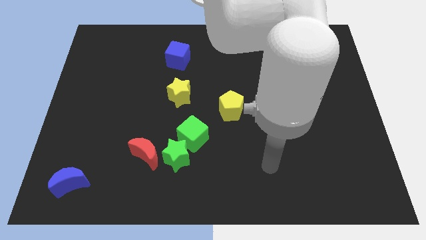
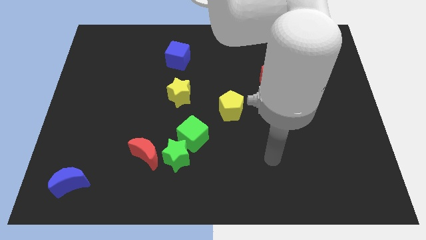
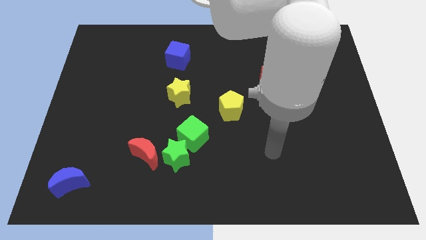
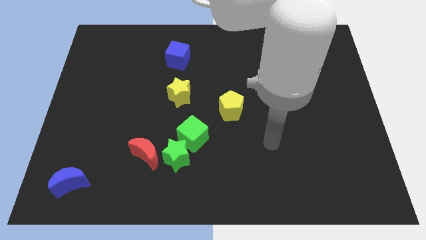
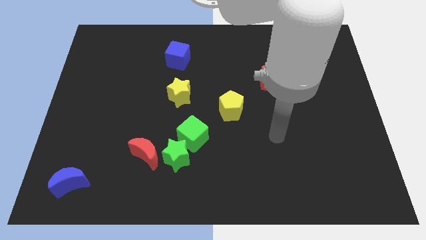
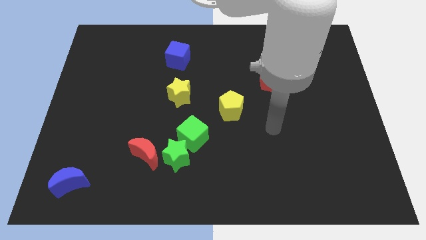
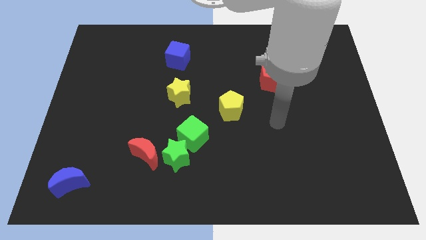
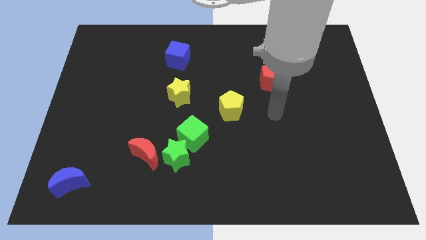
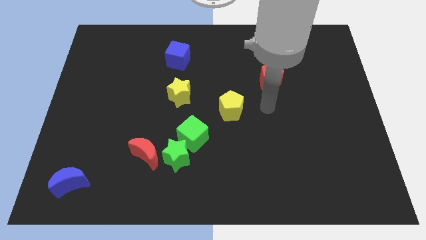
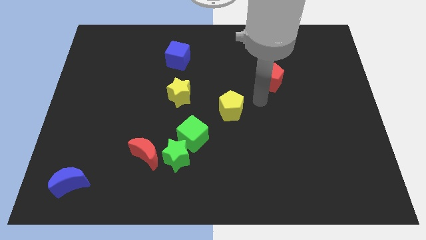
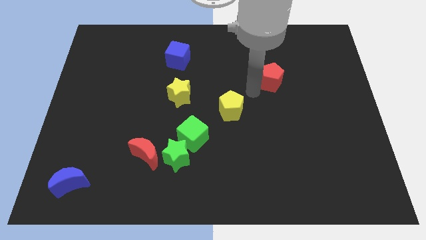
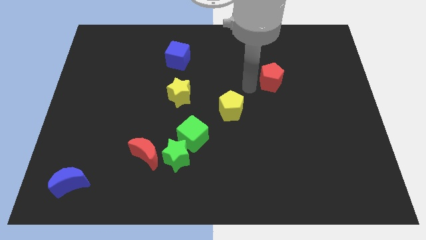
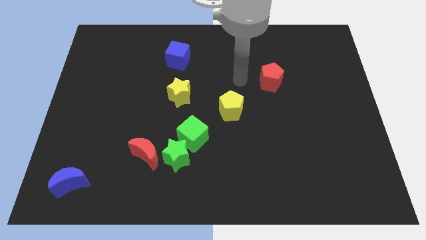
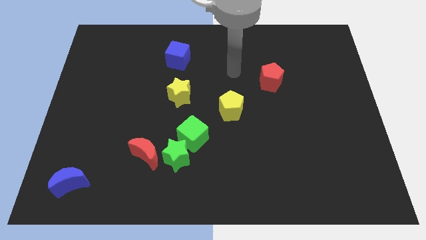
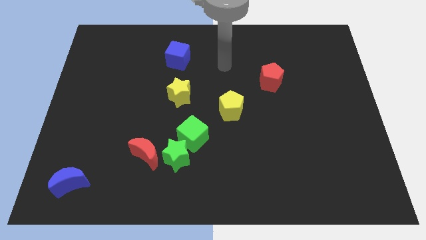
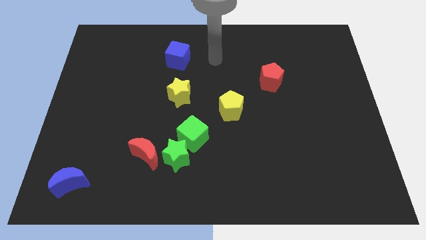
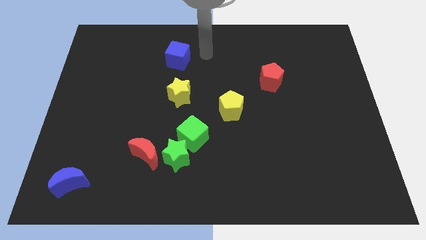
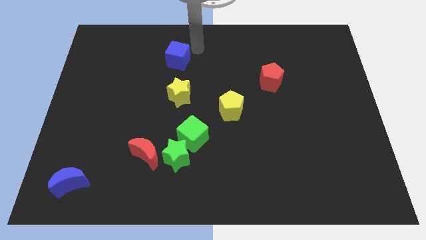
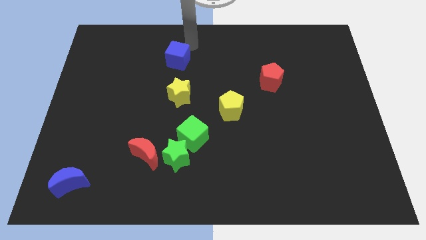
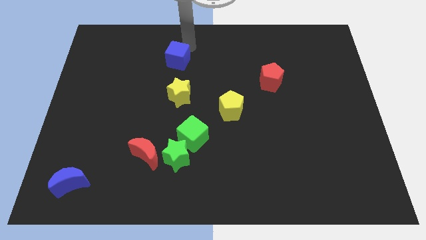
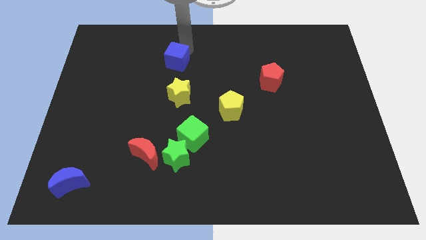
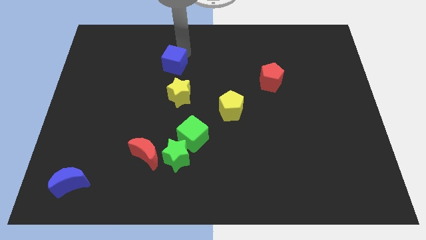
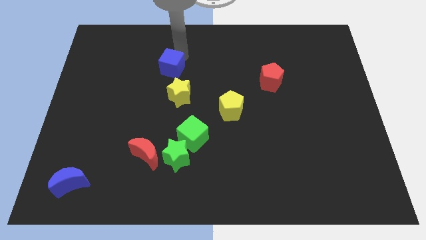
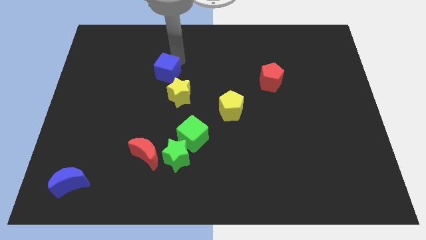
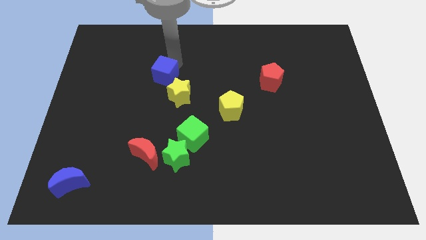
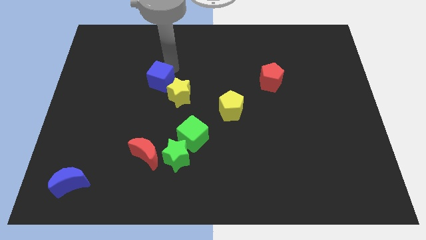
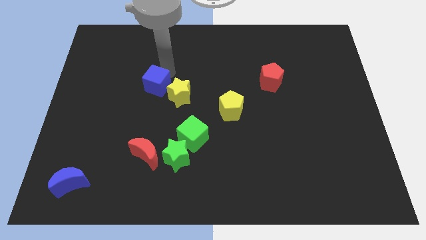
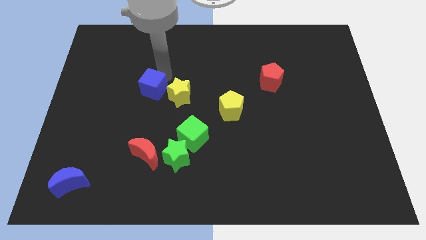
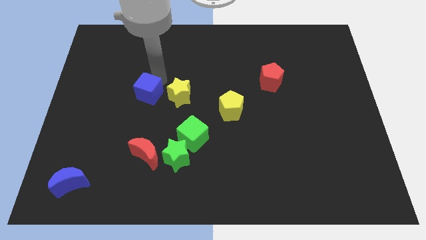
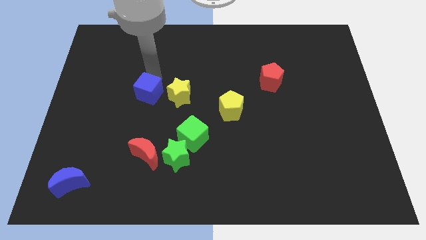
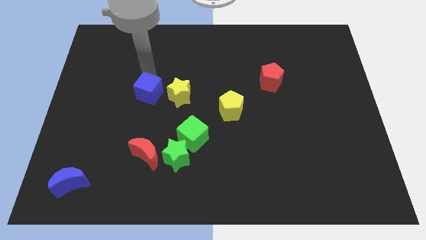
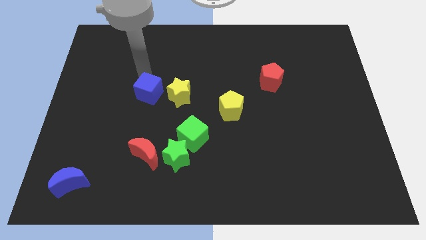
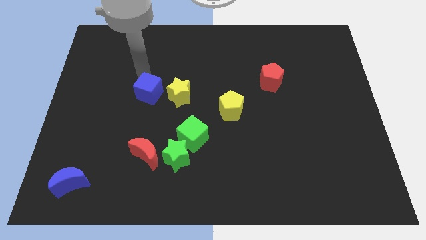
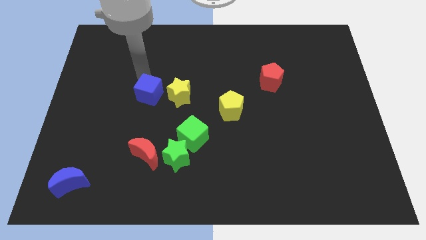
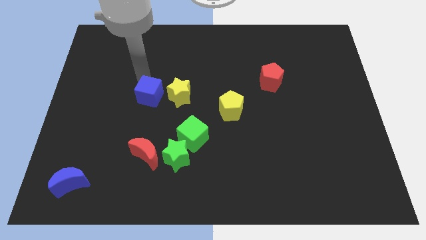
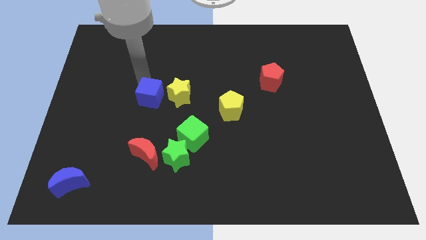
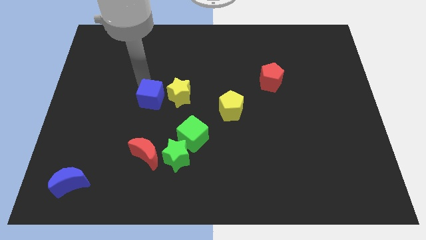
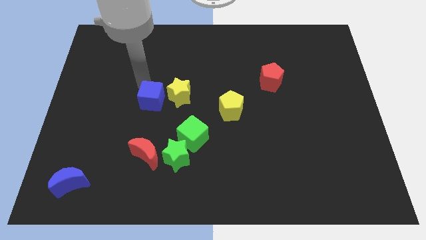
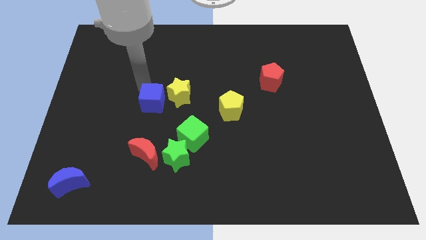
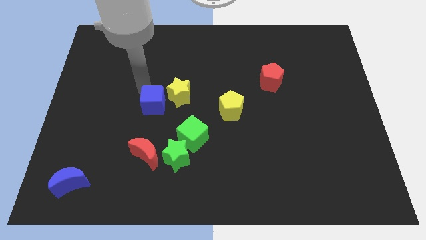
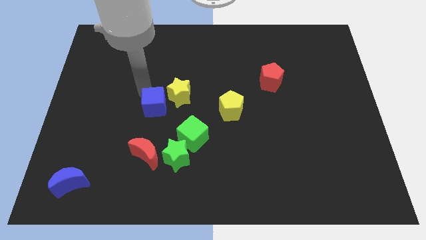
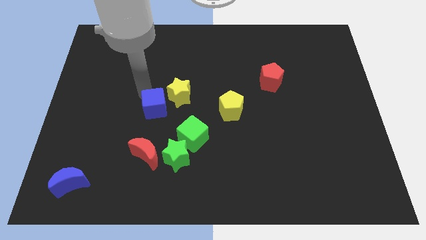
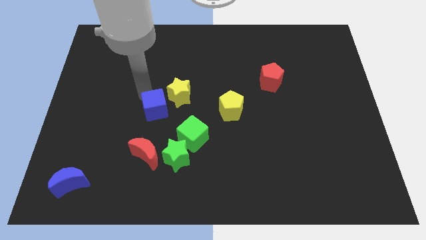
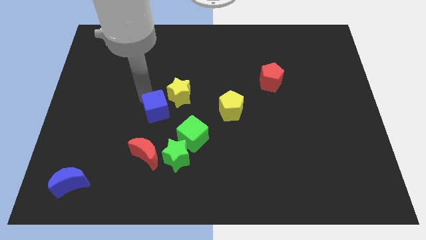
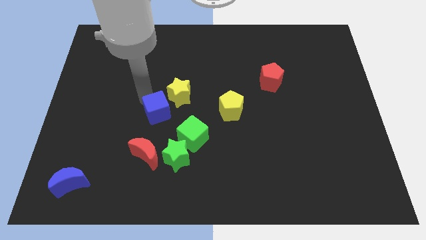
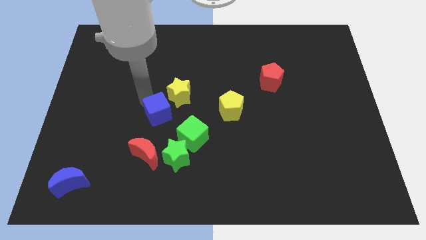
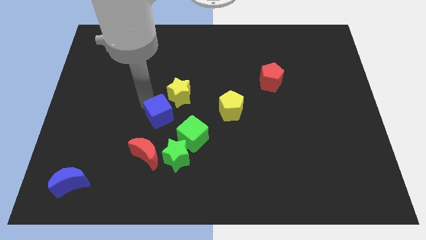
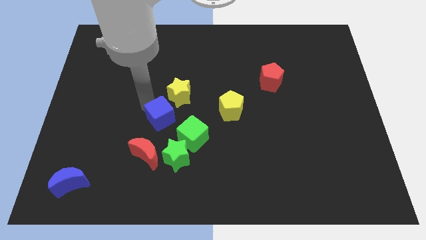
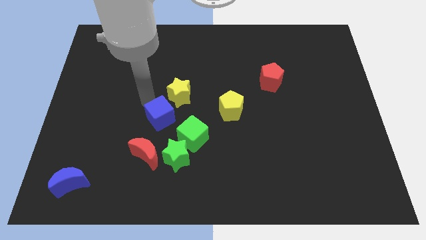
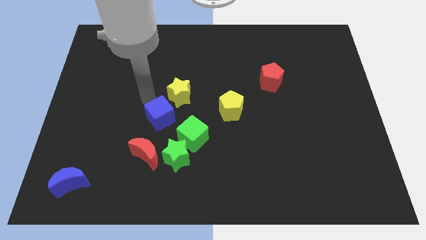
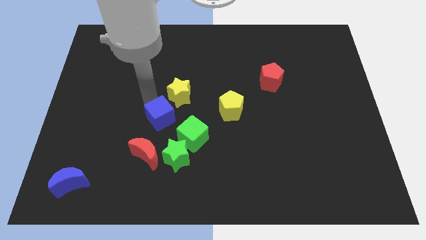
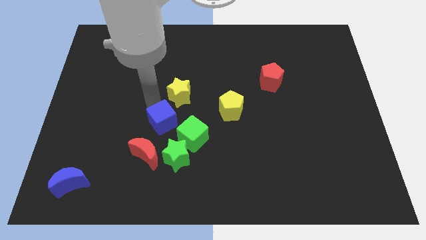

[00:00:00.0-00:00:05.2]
push the blue cube to the top right of the red moon

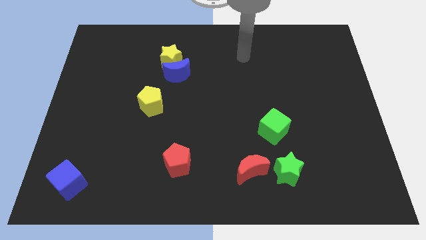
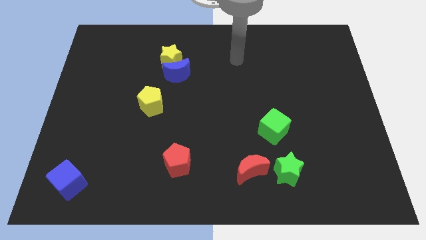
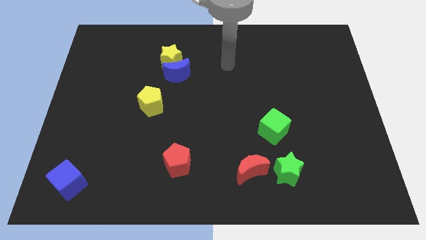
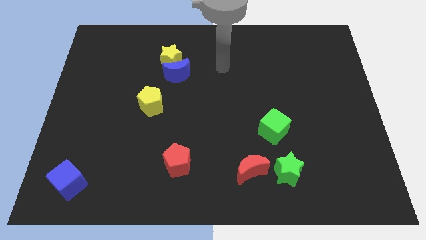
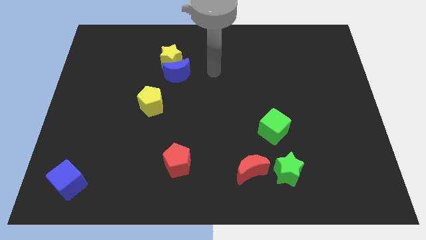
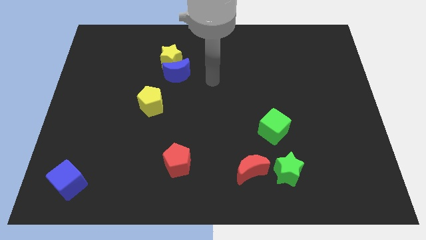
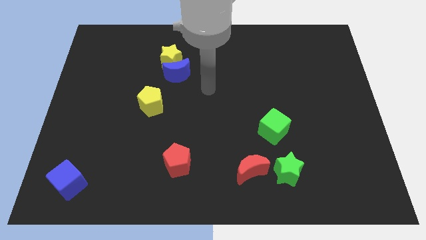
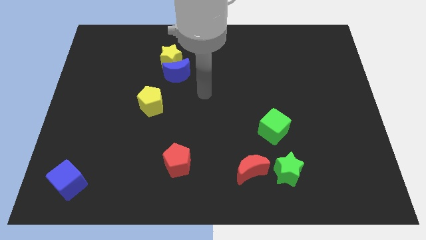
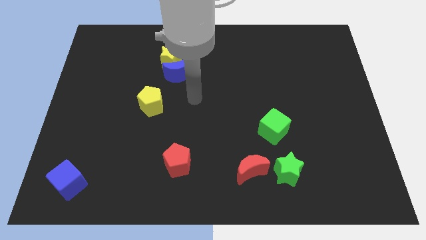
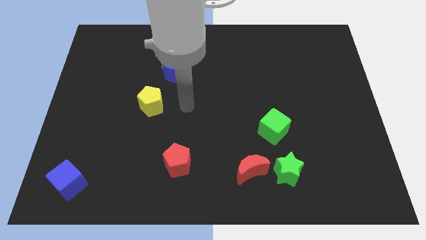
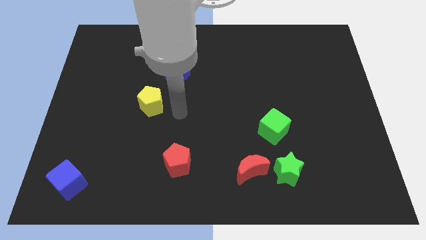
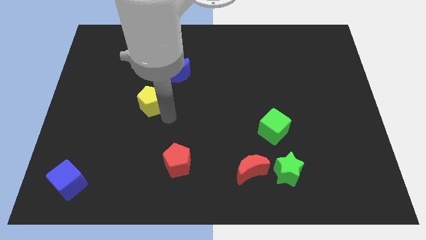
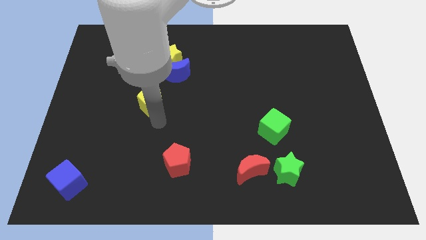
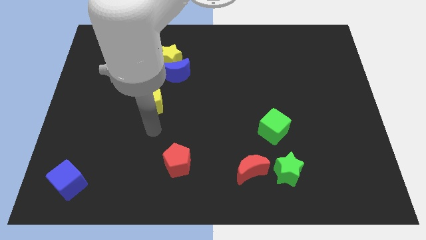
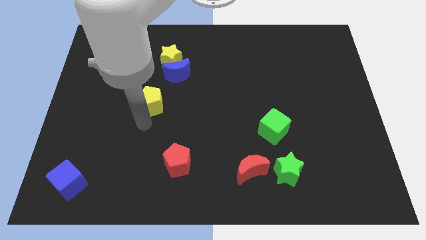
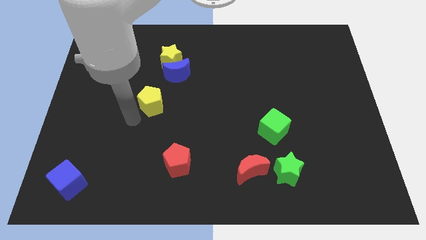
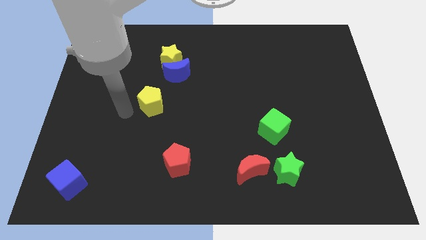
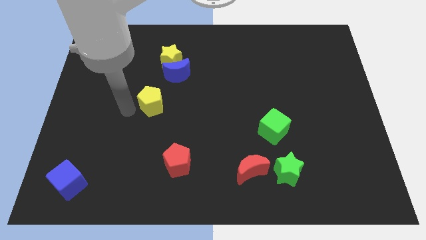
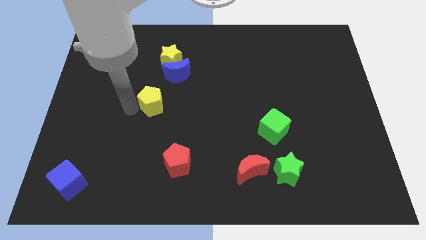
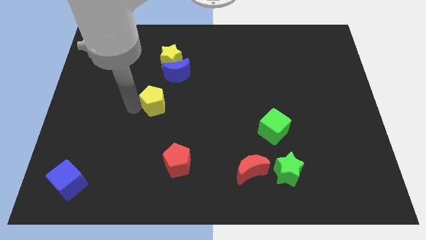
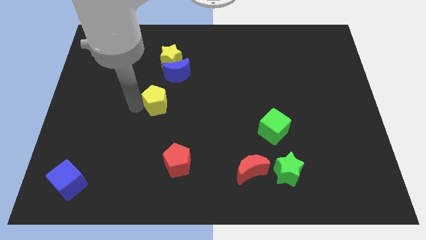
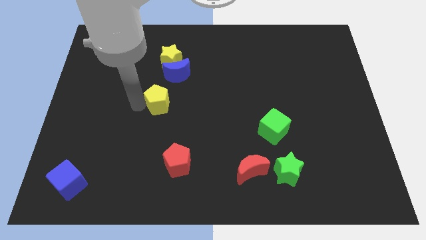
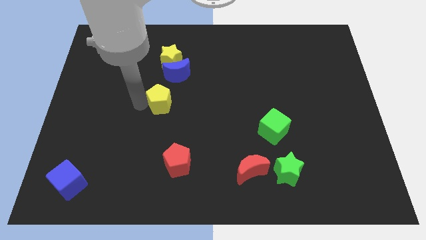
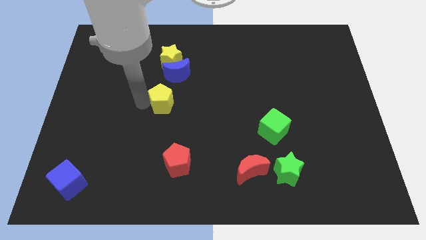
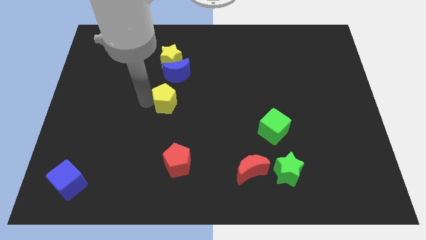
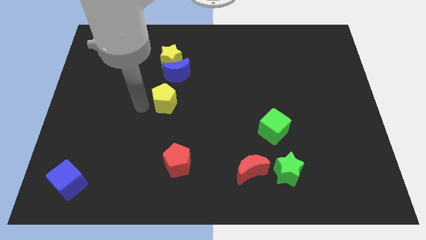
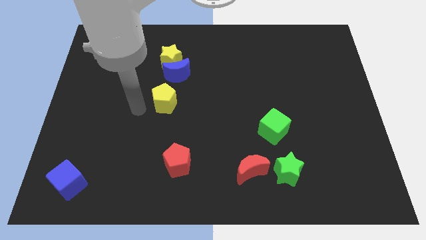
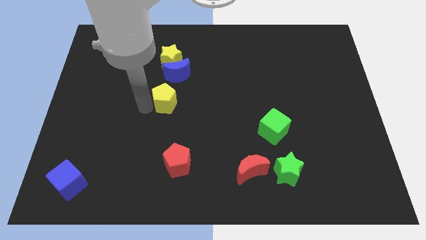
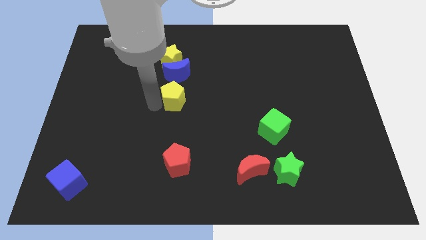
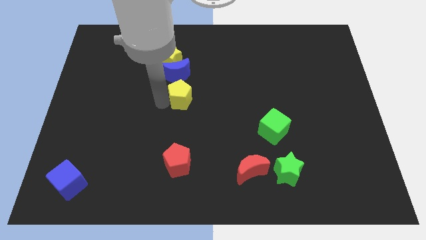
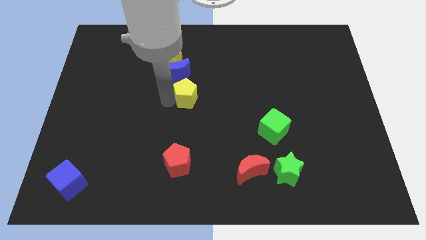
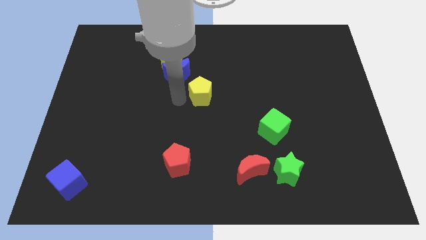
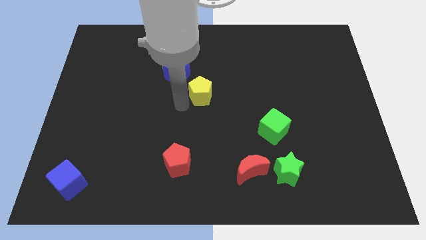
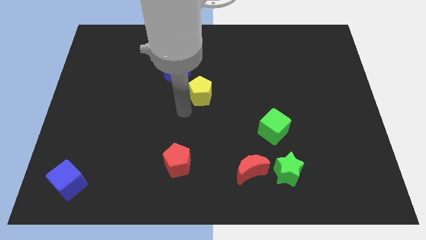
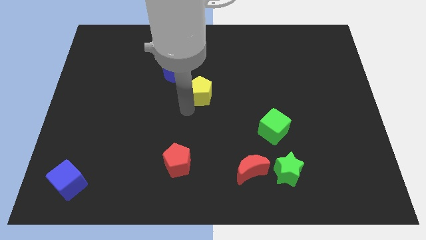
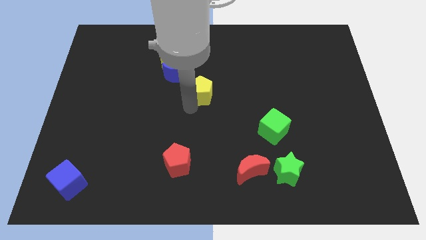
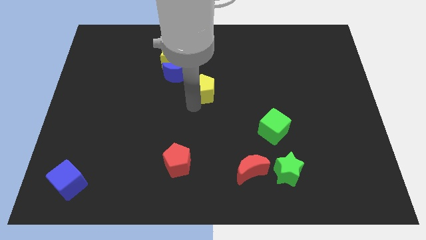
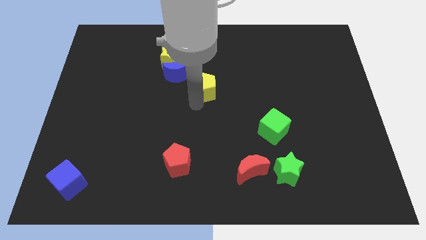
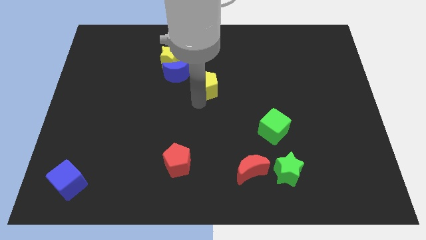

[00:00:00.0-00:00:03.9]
put the yellow pentagon just right of the blue moon
